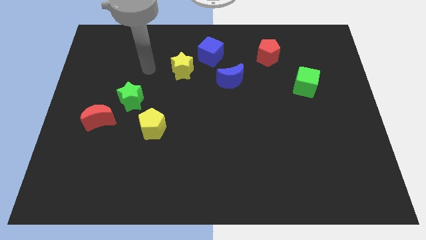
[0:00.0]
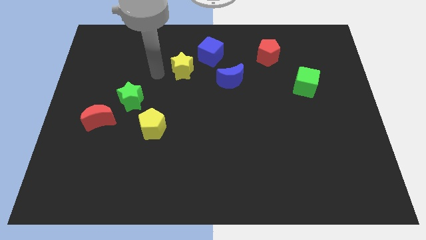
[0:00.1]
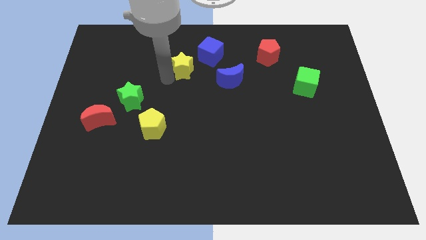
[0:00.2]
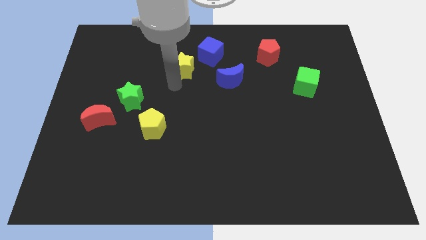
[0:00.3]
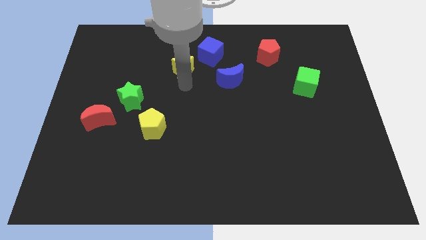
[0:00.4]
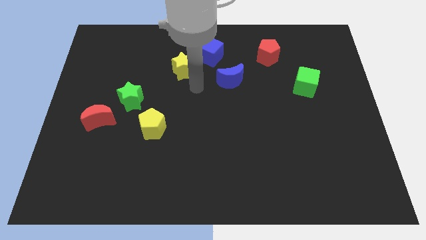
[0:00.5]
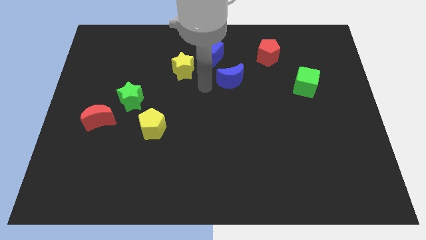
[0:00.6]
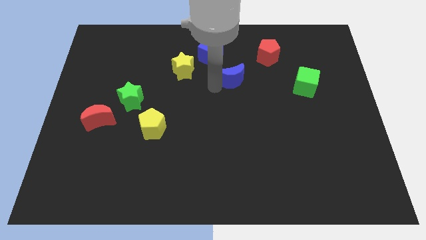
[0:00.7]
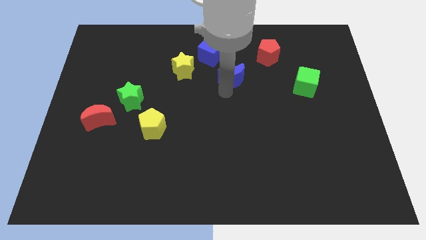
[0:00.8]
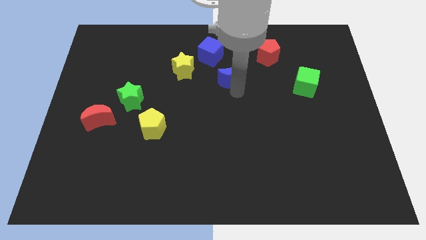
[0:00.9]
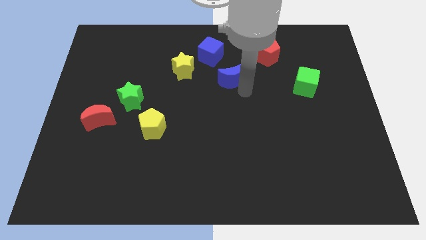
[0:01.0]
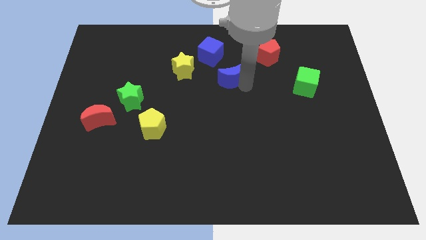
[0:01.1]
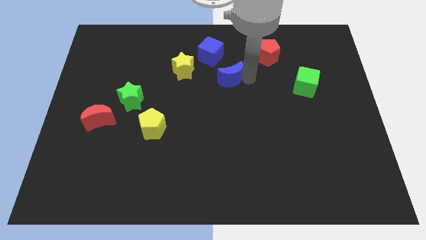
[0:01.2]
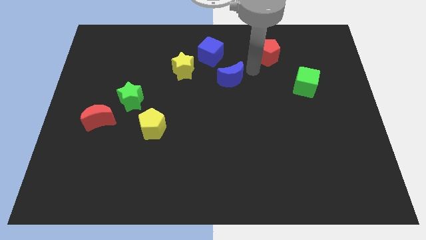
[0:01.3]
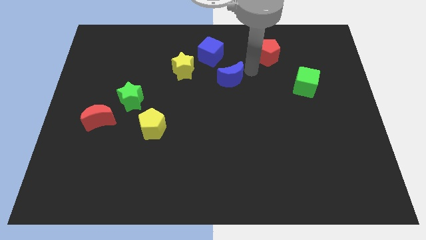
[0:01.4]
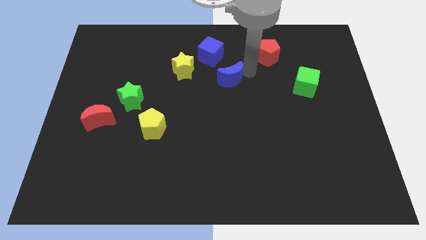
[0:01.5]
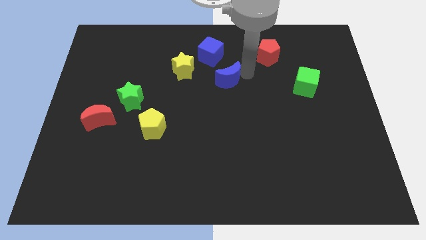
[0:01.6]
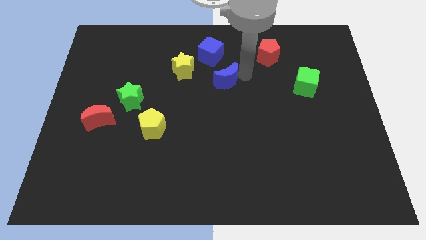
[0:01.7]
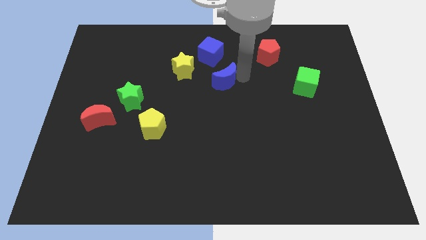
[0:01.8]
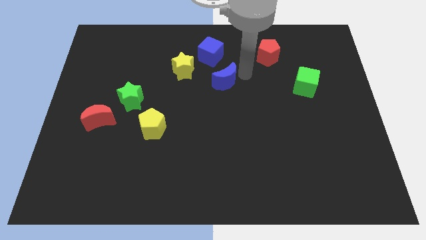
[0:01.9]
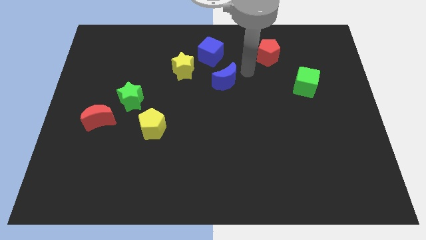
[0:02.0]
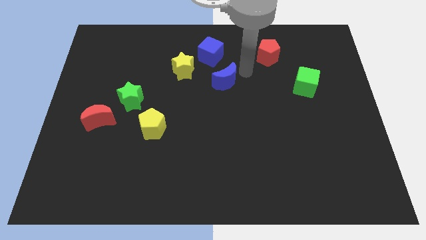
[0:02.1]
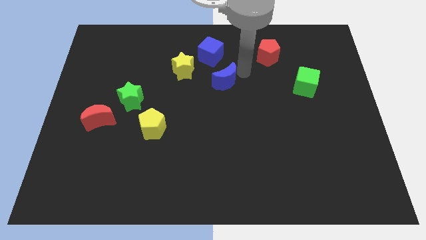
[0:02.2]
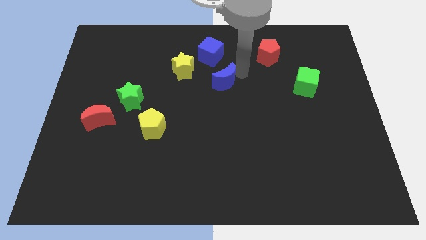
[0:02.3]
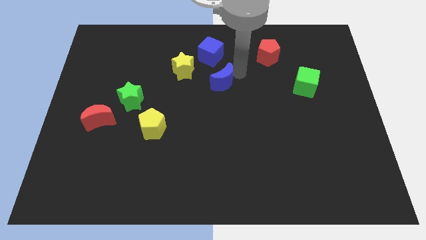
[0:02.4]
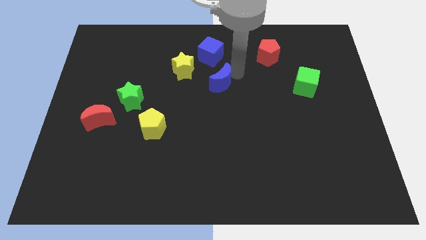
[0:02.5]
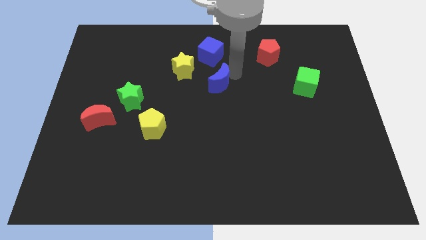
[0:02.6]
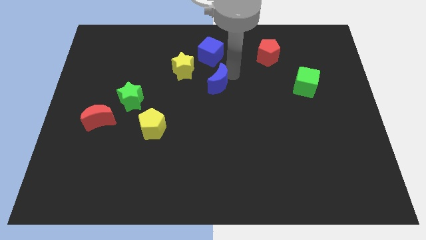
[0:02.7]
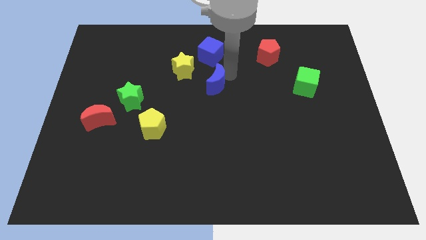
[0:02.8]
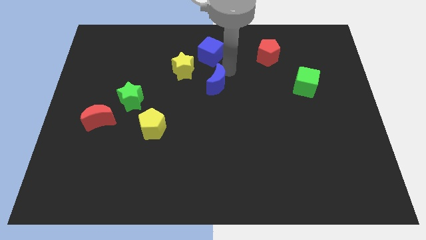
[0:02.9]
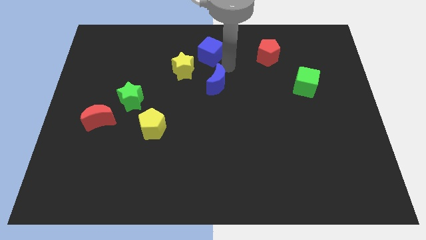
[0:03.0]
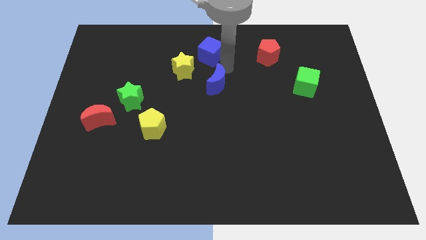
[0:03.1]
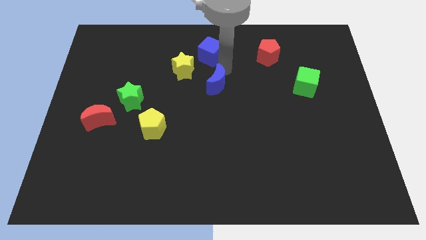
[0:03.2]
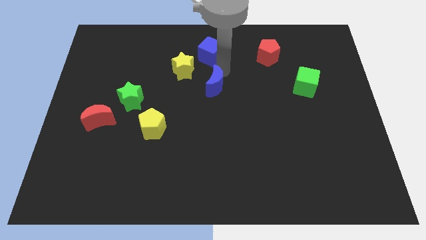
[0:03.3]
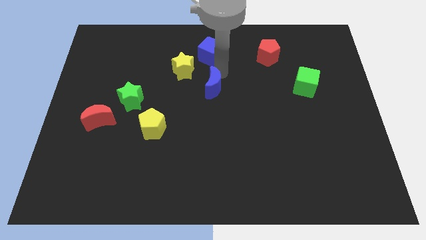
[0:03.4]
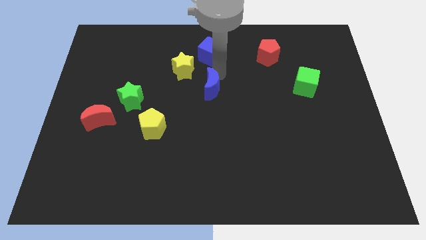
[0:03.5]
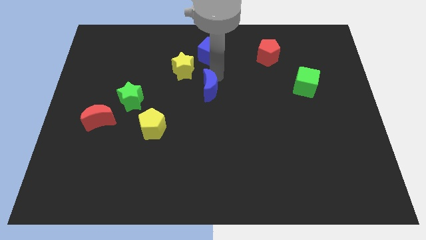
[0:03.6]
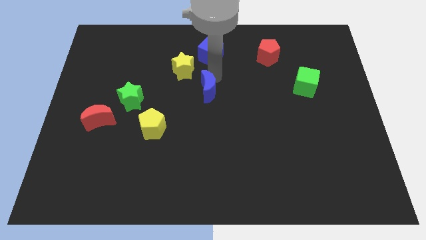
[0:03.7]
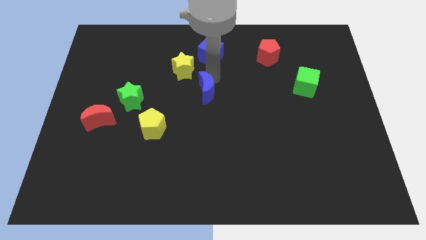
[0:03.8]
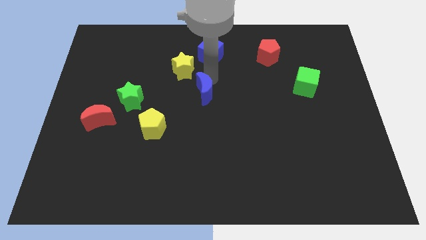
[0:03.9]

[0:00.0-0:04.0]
slide the blue moon a little bit downwards and to the left diagonally

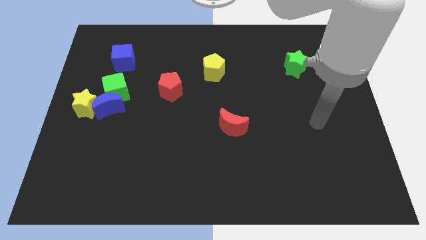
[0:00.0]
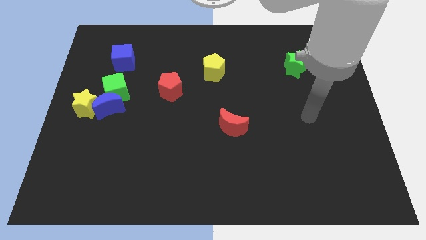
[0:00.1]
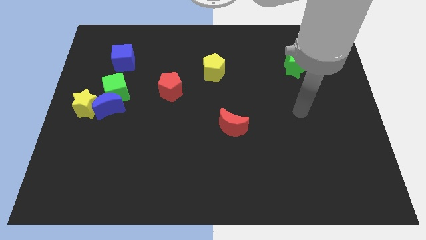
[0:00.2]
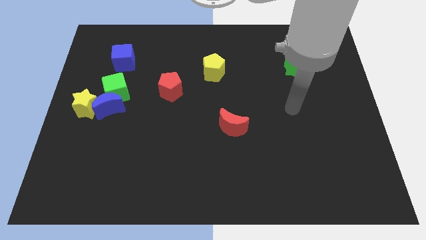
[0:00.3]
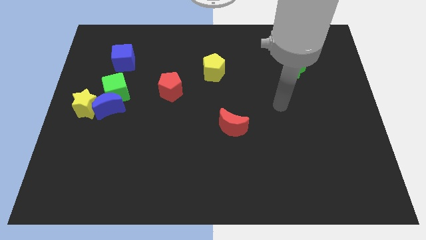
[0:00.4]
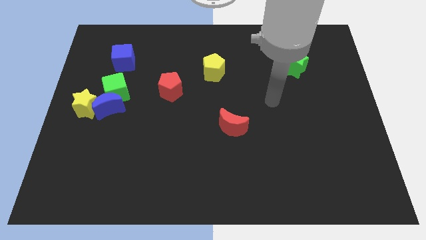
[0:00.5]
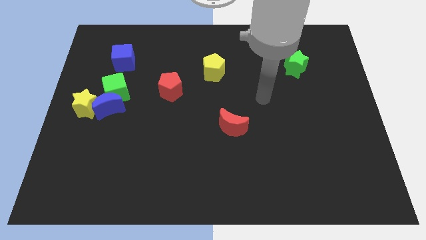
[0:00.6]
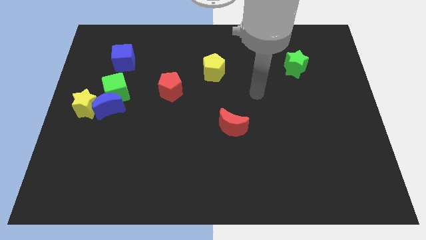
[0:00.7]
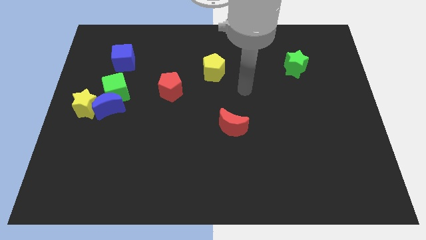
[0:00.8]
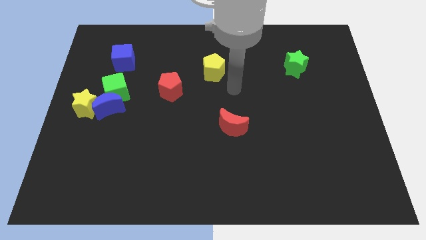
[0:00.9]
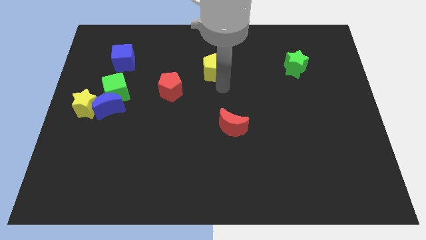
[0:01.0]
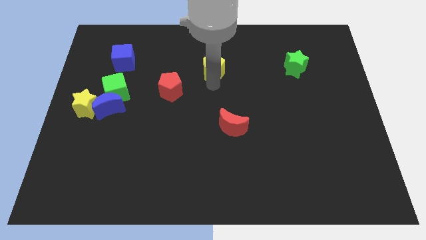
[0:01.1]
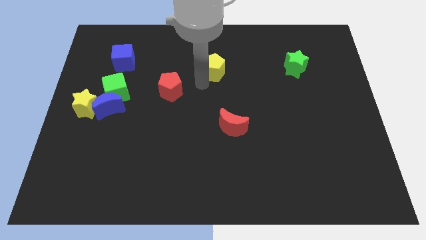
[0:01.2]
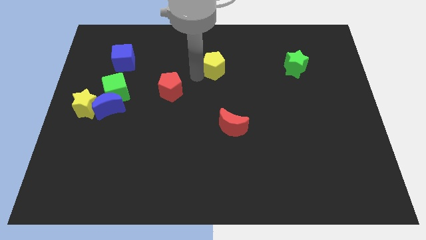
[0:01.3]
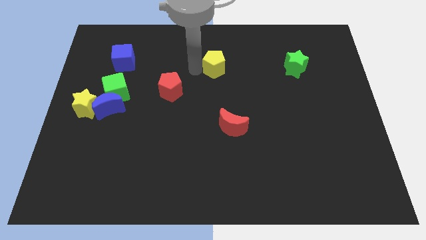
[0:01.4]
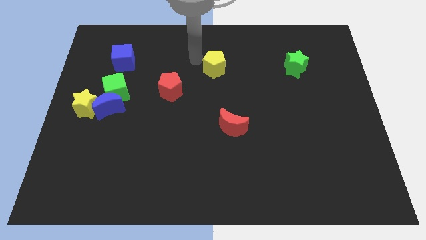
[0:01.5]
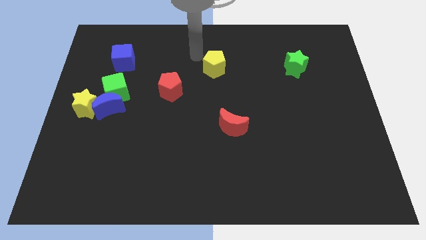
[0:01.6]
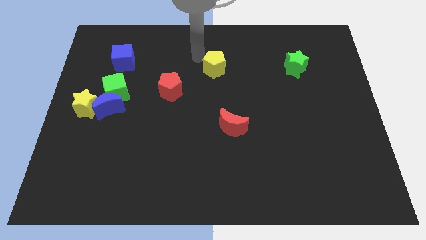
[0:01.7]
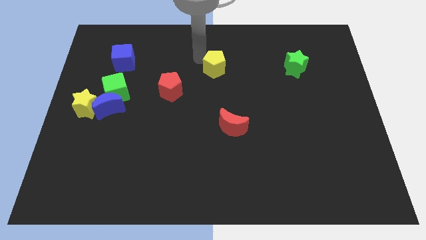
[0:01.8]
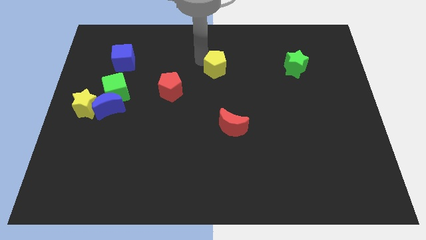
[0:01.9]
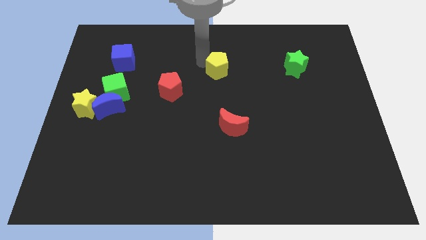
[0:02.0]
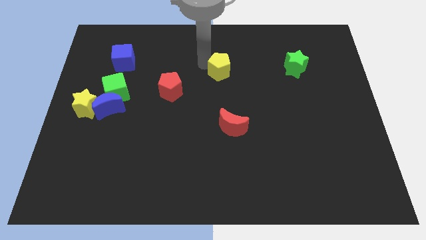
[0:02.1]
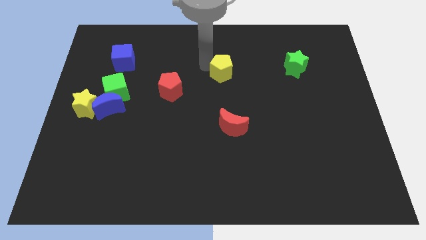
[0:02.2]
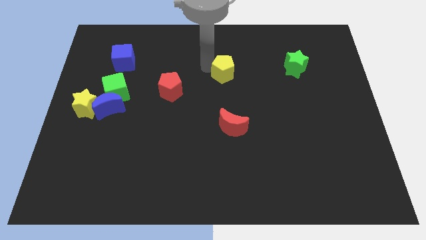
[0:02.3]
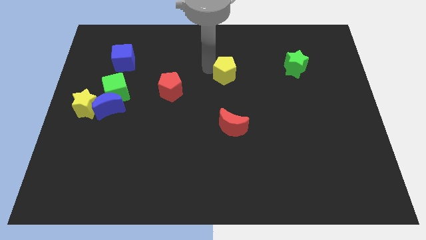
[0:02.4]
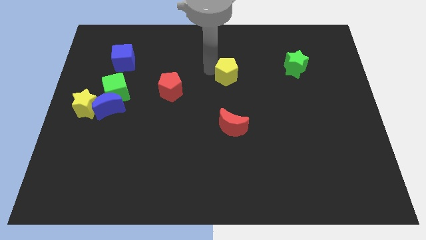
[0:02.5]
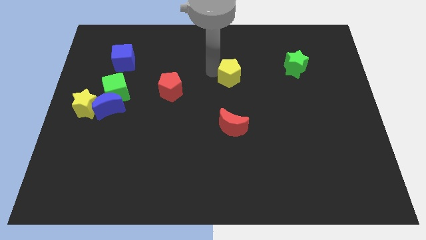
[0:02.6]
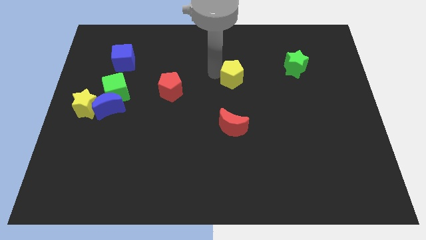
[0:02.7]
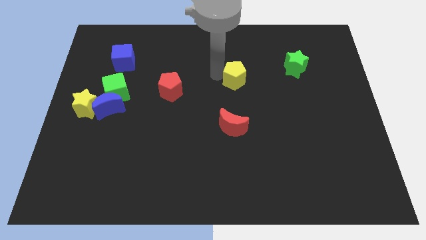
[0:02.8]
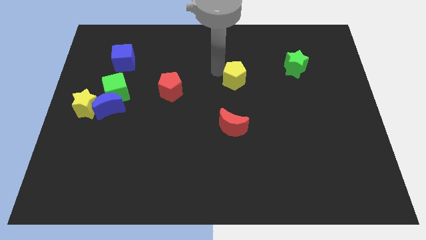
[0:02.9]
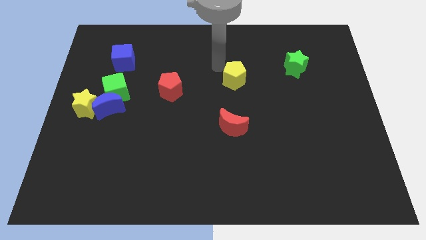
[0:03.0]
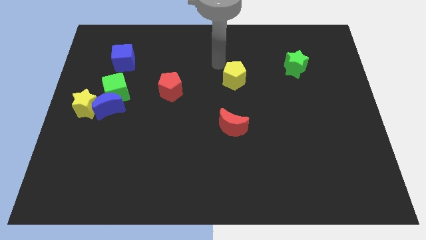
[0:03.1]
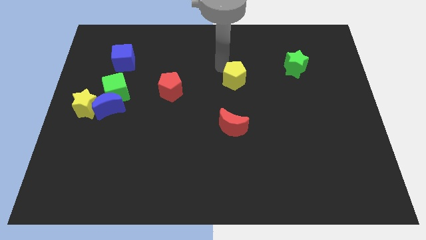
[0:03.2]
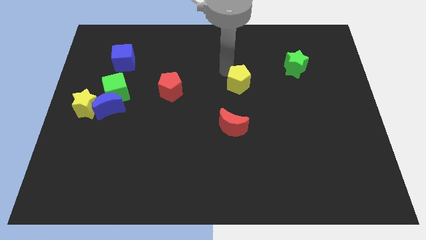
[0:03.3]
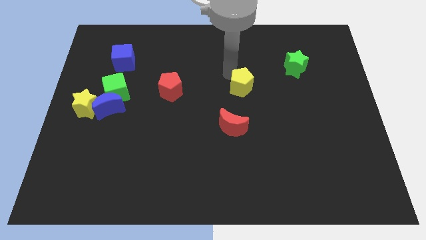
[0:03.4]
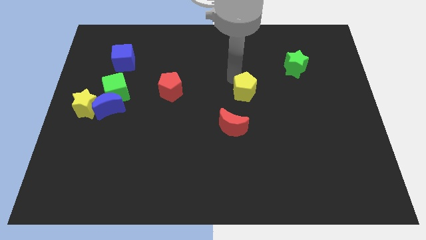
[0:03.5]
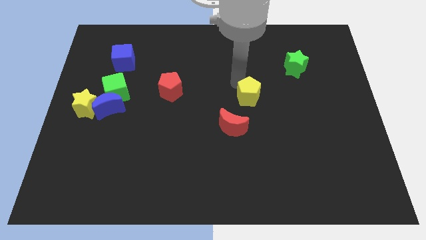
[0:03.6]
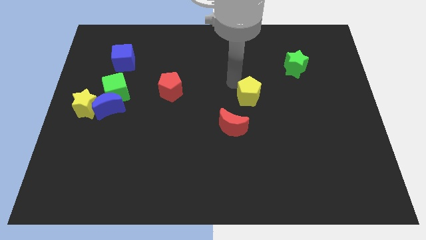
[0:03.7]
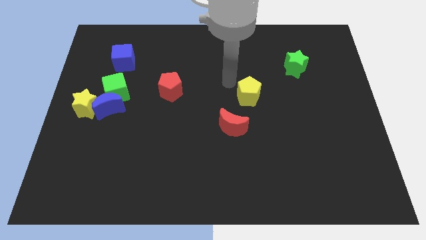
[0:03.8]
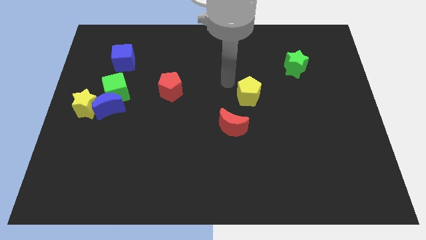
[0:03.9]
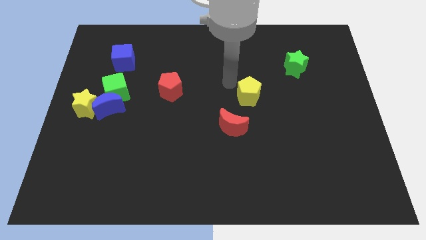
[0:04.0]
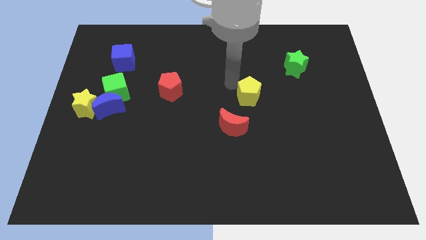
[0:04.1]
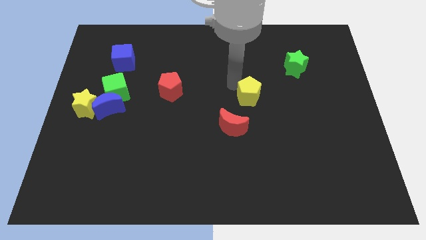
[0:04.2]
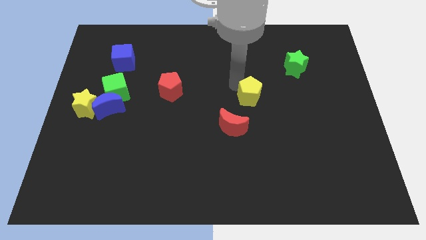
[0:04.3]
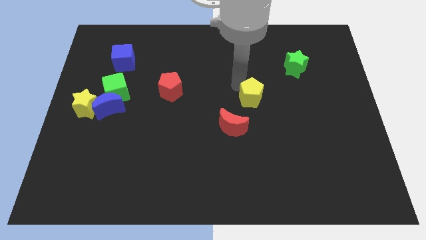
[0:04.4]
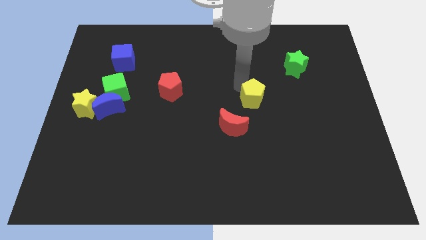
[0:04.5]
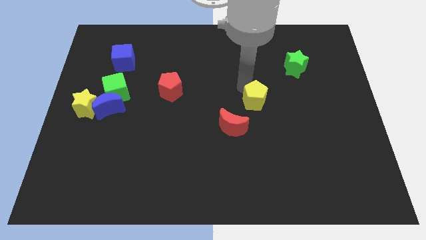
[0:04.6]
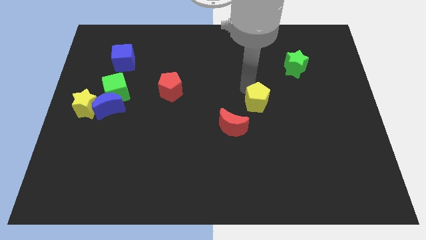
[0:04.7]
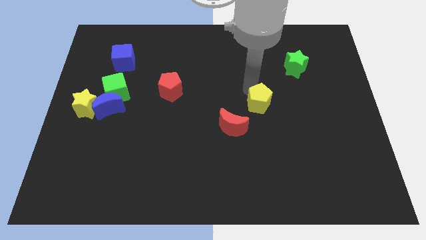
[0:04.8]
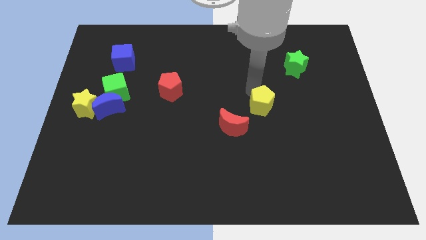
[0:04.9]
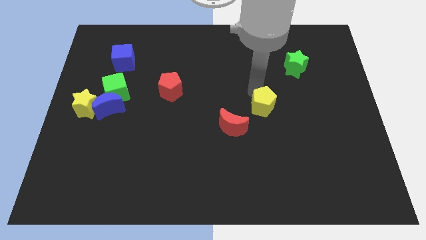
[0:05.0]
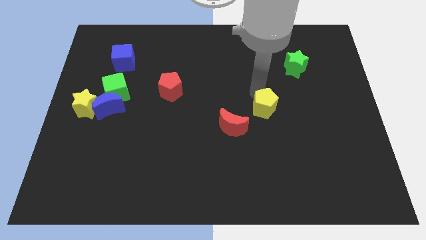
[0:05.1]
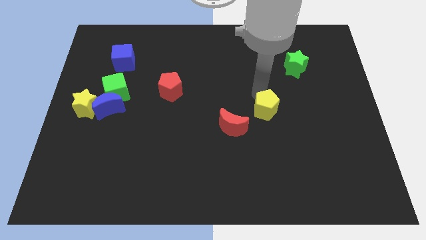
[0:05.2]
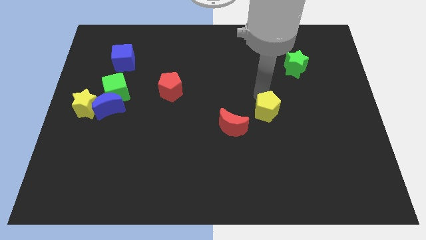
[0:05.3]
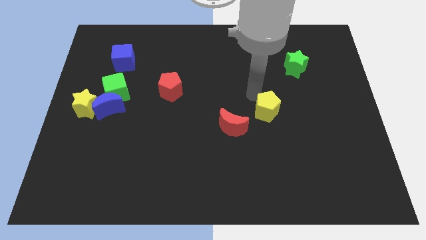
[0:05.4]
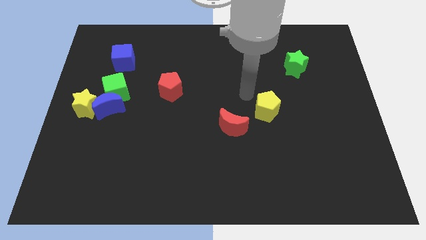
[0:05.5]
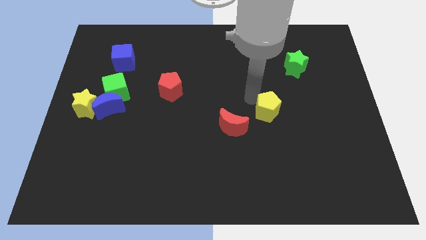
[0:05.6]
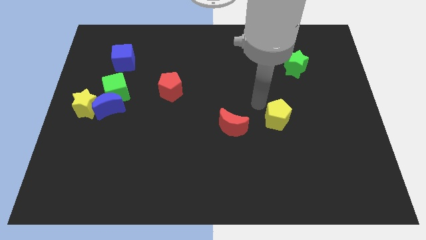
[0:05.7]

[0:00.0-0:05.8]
slide the yellow pentagon down and right
